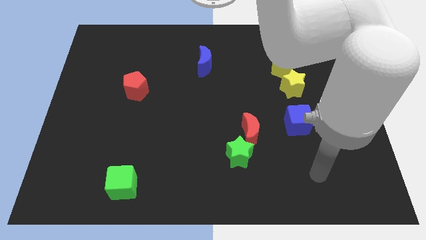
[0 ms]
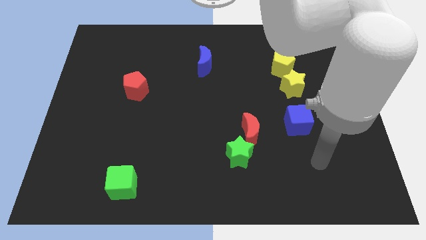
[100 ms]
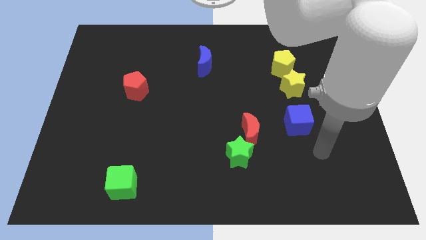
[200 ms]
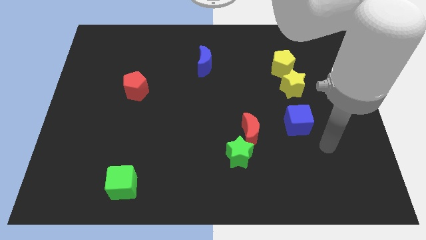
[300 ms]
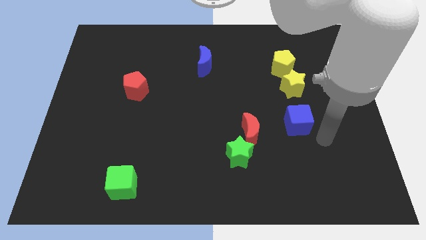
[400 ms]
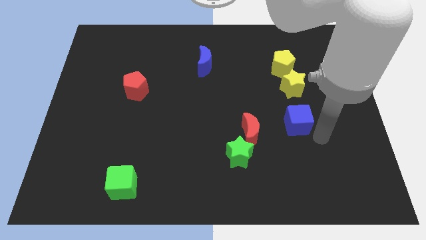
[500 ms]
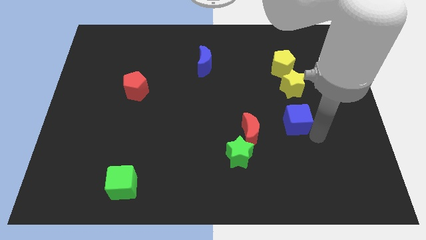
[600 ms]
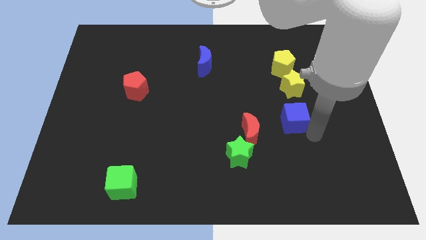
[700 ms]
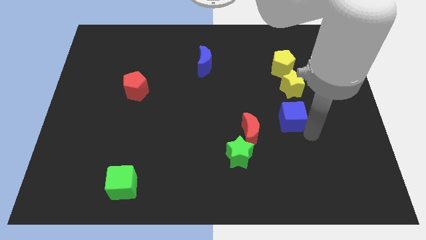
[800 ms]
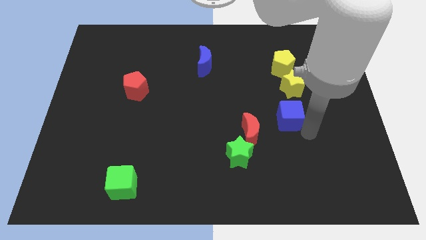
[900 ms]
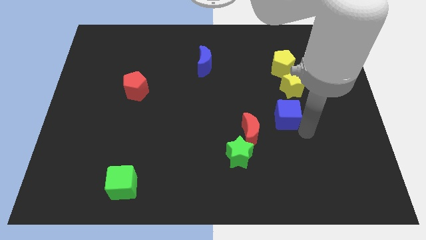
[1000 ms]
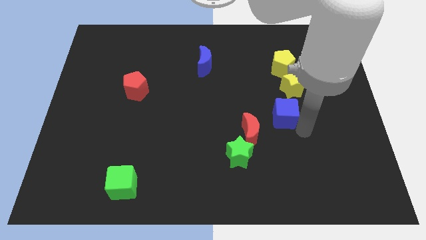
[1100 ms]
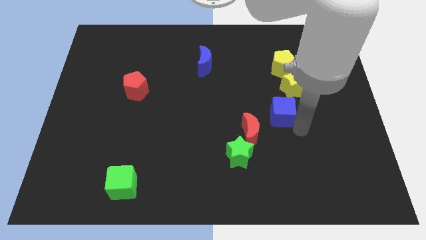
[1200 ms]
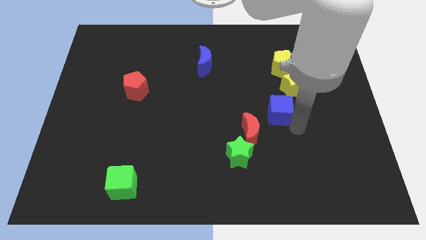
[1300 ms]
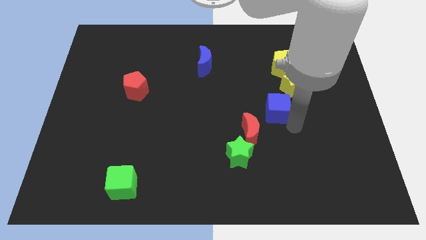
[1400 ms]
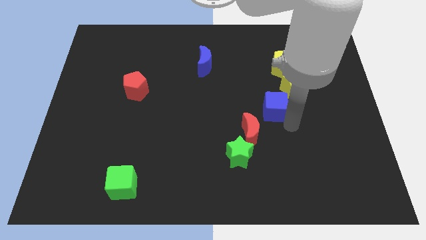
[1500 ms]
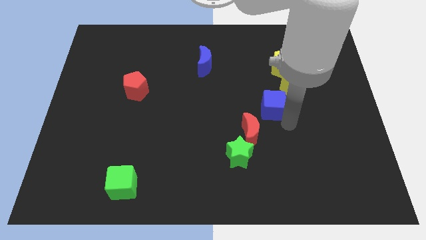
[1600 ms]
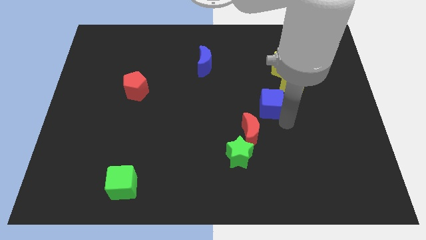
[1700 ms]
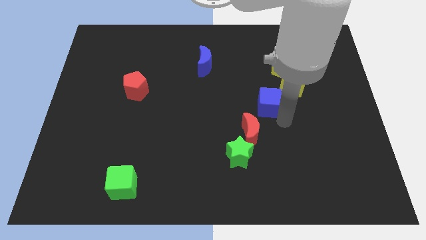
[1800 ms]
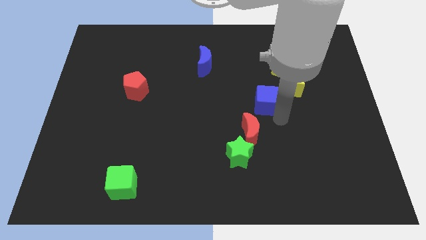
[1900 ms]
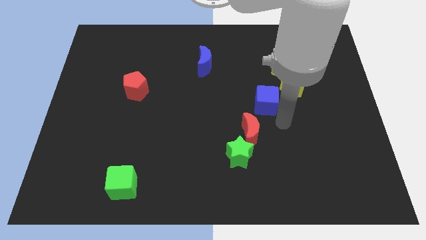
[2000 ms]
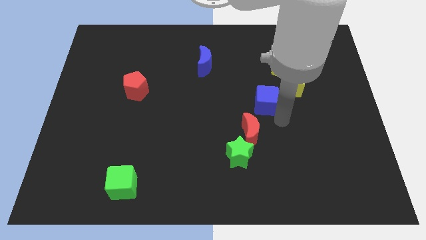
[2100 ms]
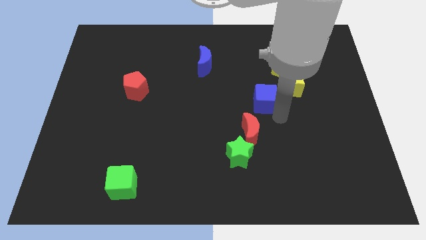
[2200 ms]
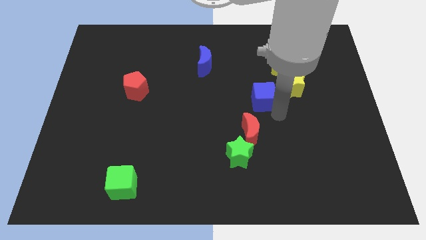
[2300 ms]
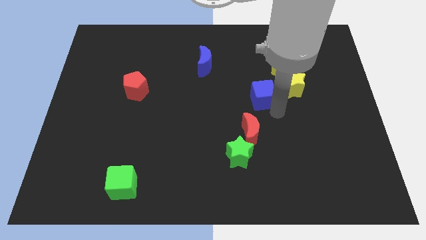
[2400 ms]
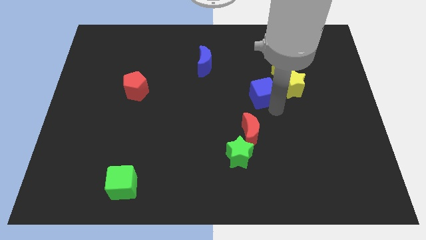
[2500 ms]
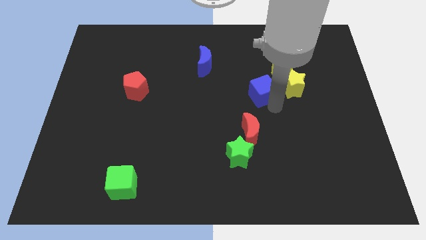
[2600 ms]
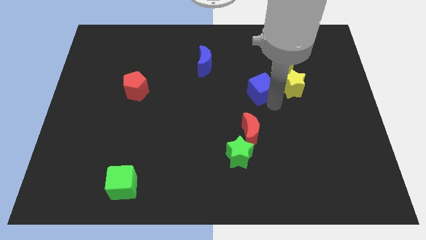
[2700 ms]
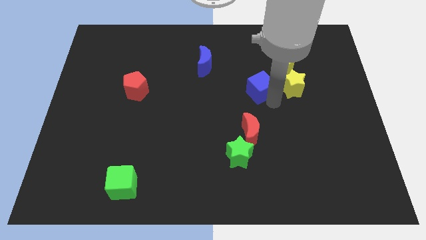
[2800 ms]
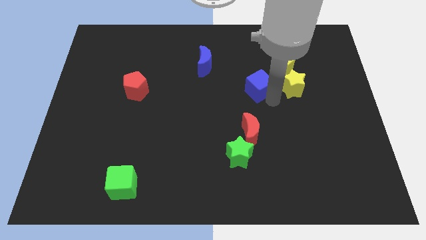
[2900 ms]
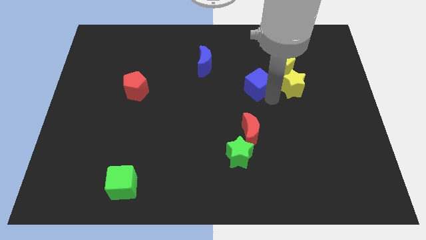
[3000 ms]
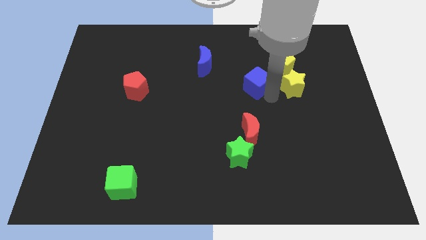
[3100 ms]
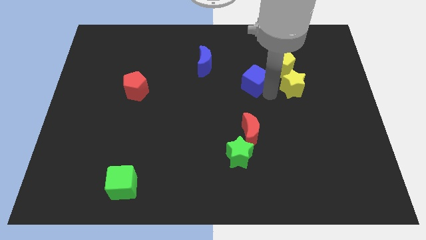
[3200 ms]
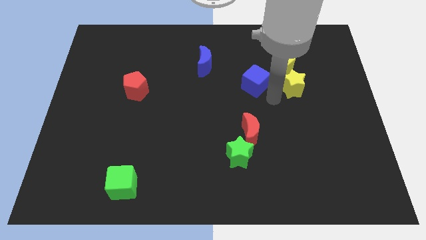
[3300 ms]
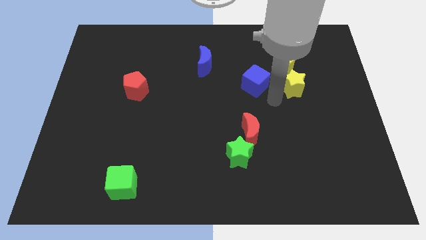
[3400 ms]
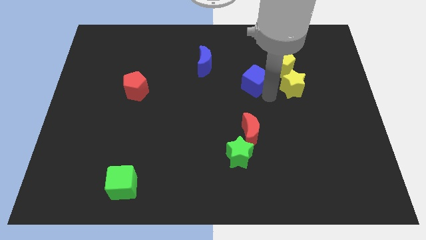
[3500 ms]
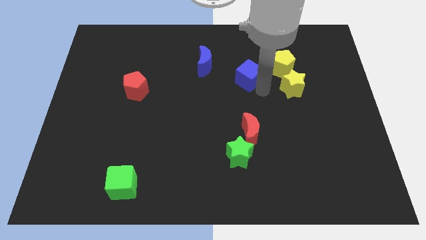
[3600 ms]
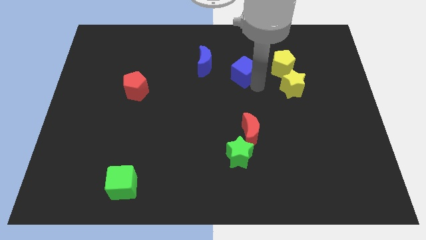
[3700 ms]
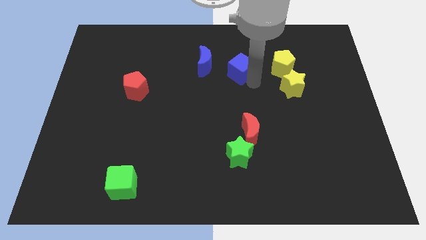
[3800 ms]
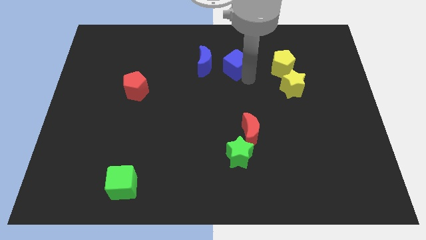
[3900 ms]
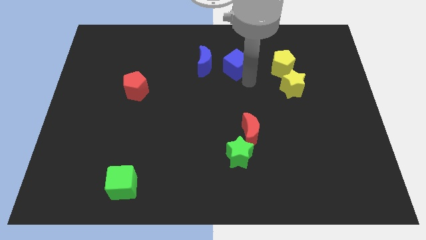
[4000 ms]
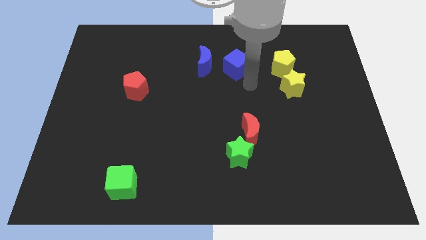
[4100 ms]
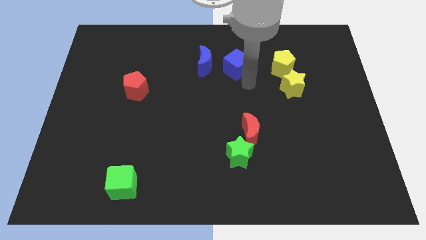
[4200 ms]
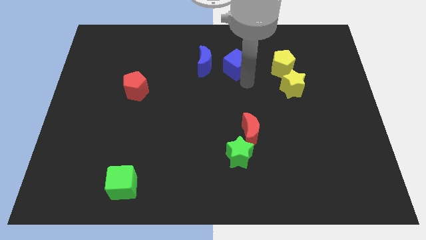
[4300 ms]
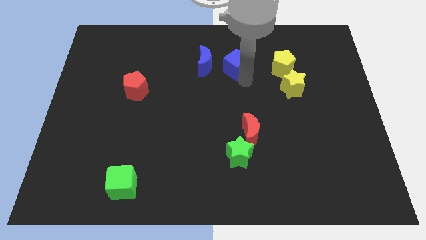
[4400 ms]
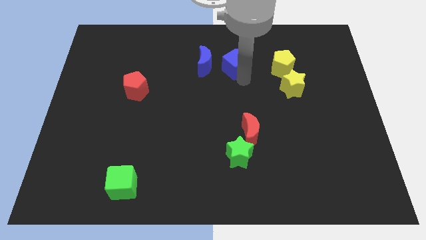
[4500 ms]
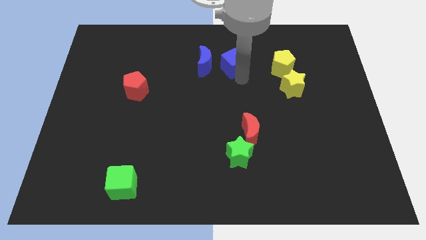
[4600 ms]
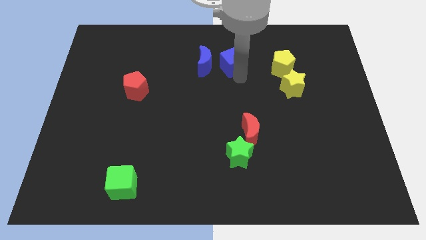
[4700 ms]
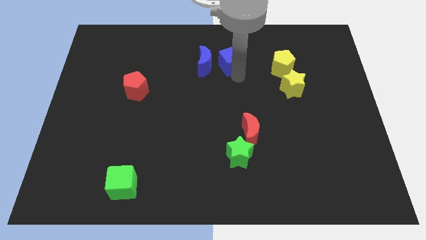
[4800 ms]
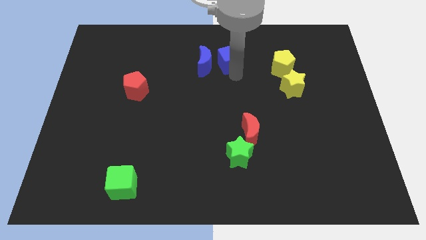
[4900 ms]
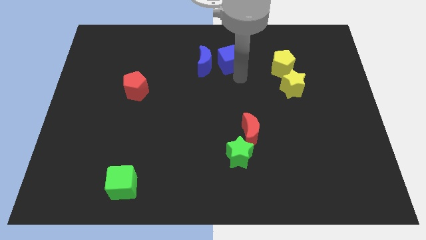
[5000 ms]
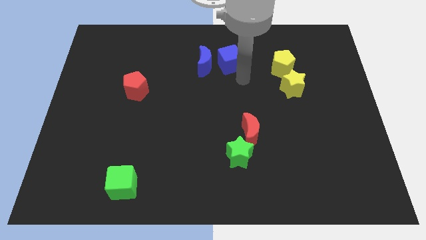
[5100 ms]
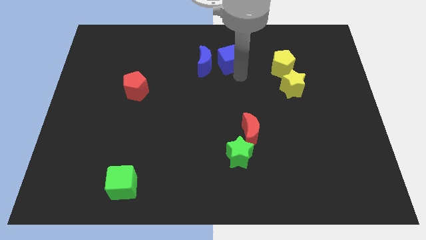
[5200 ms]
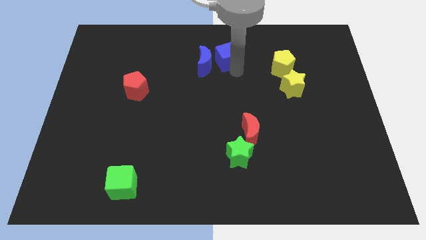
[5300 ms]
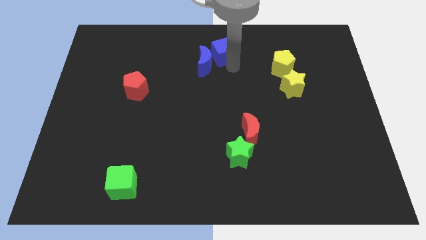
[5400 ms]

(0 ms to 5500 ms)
move the blue cube to the towards your base
